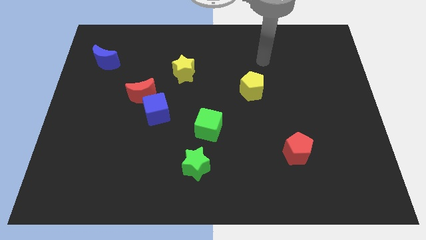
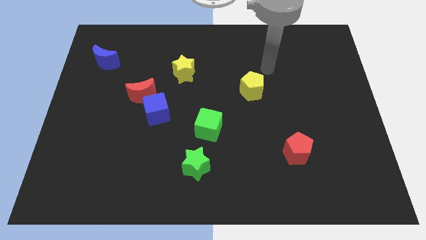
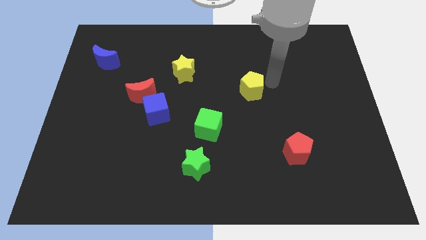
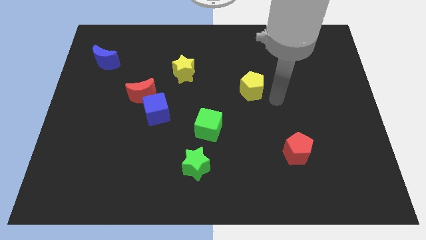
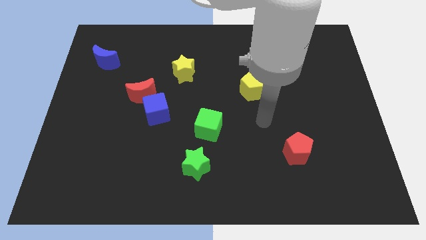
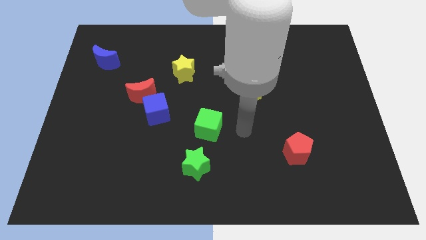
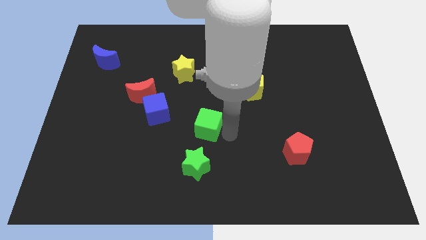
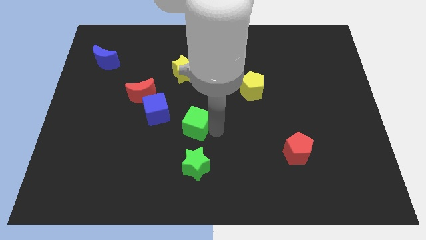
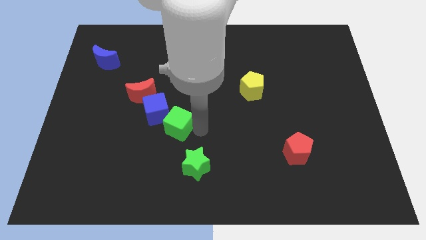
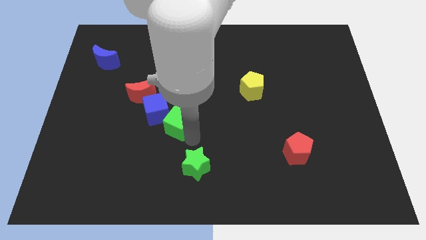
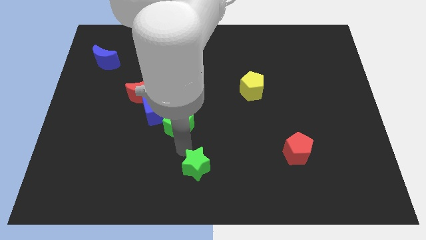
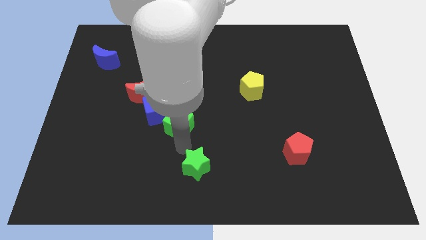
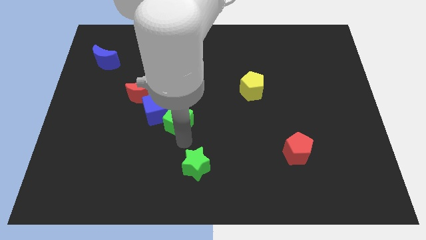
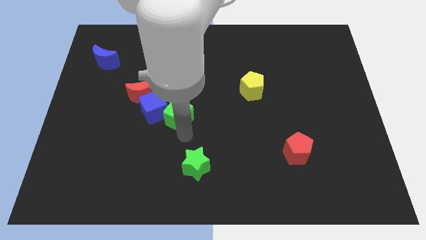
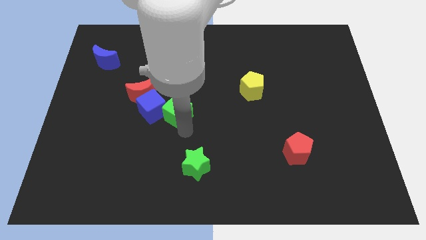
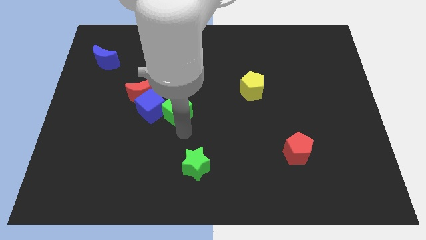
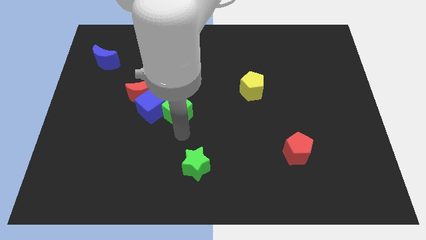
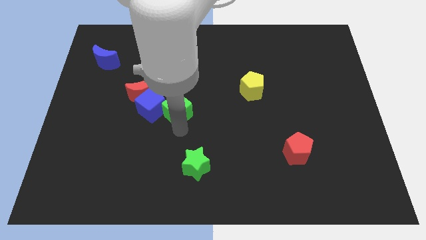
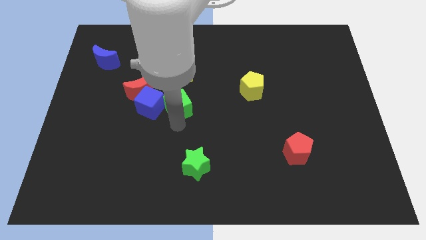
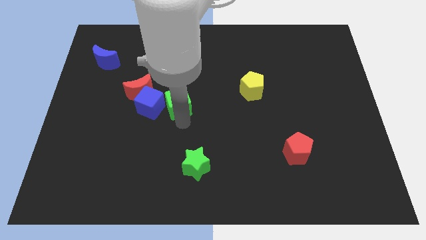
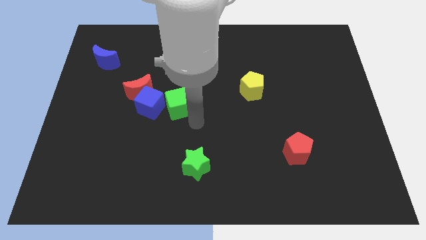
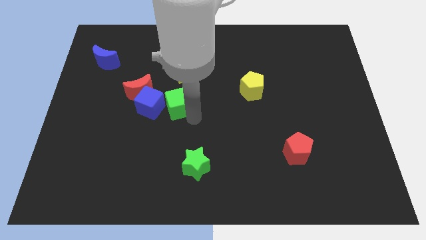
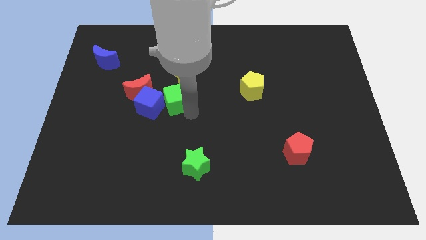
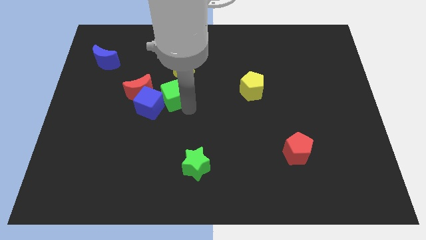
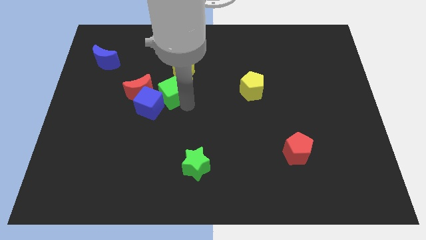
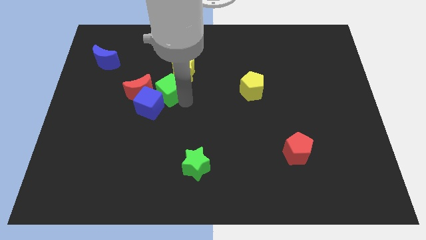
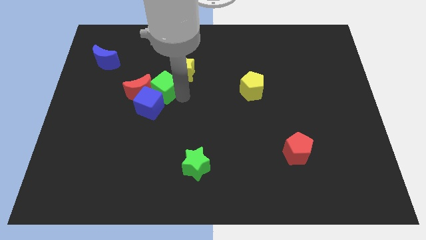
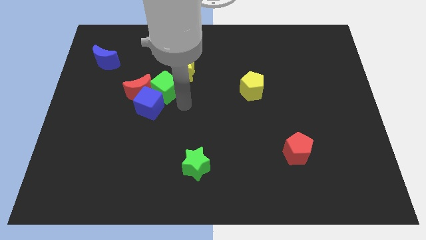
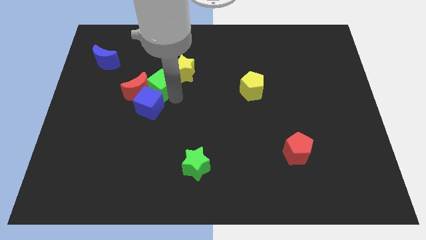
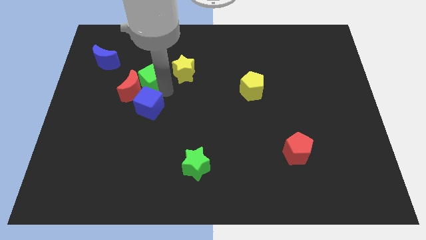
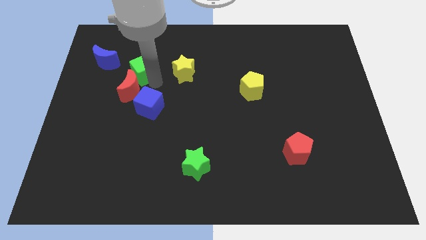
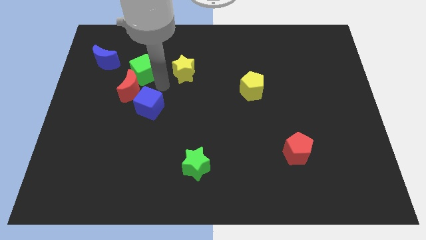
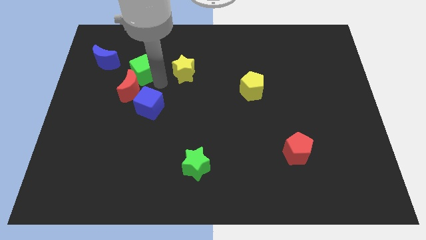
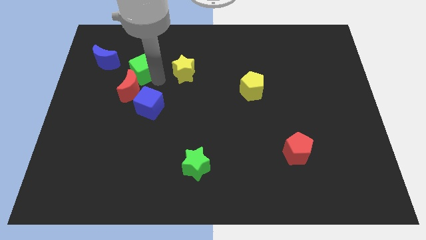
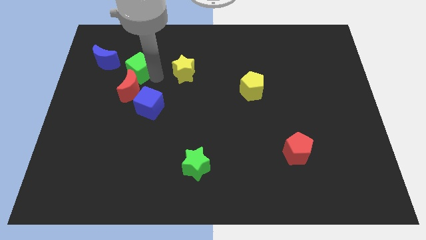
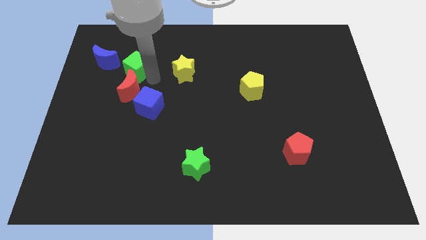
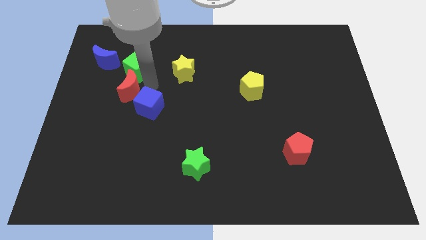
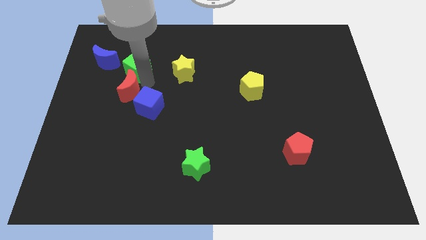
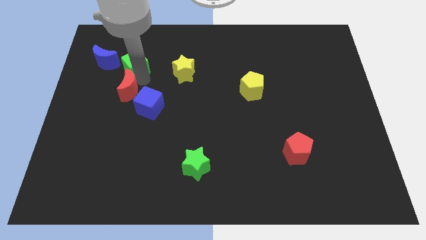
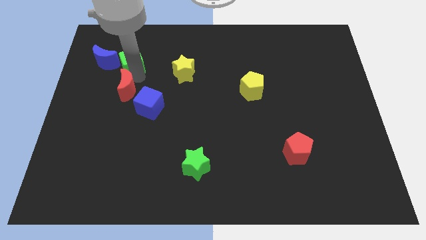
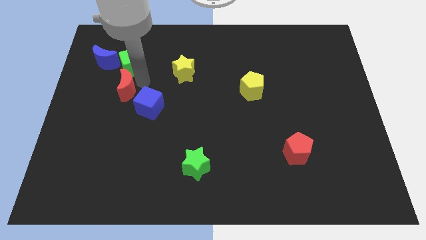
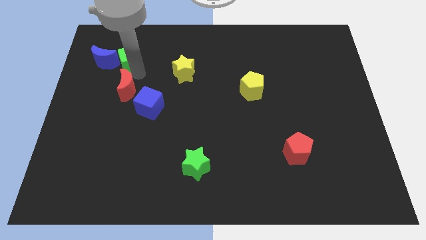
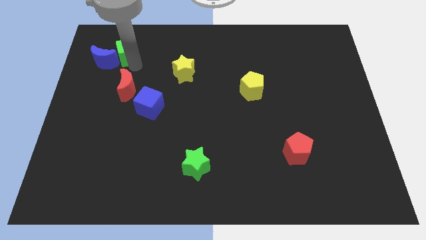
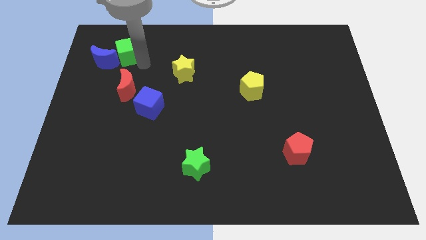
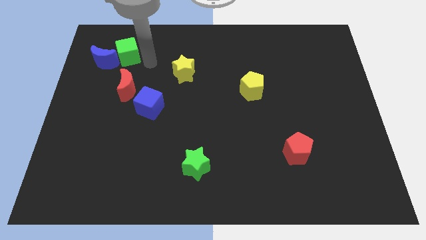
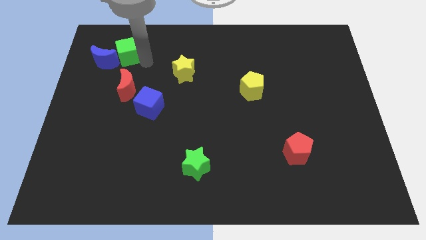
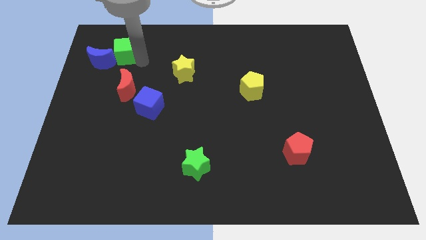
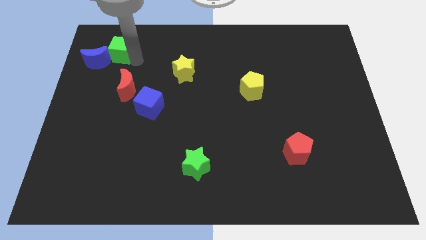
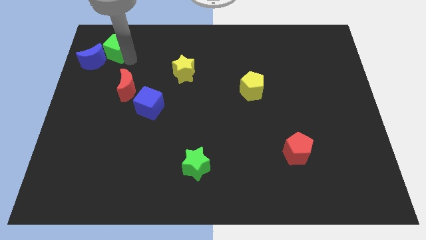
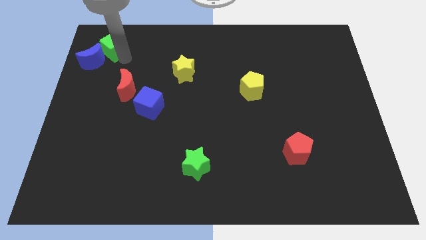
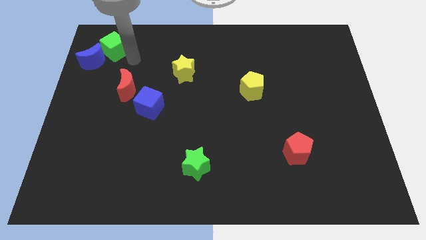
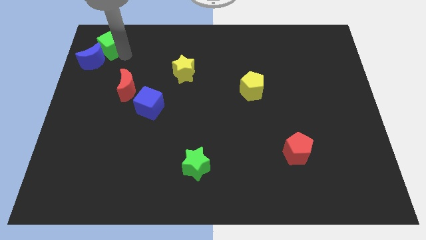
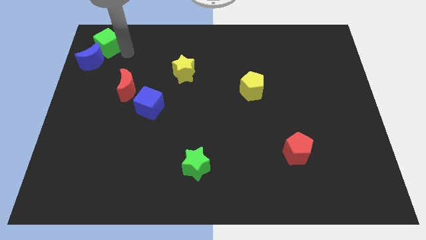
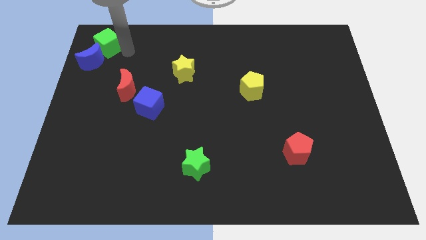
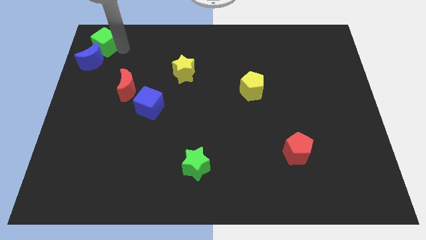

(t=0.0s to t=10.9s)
put the green cube to the top left corner

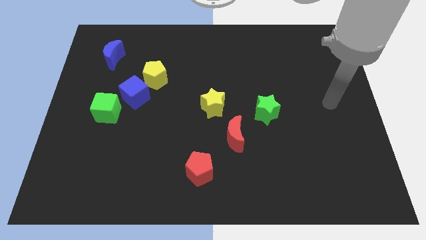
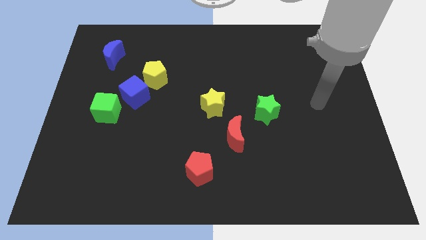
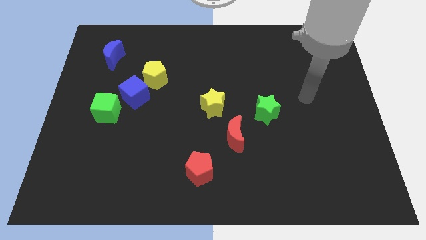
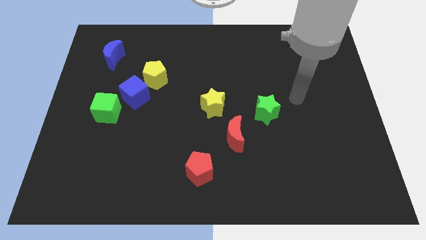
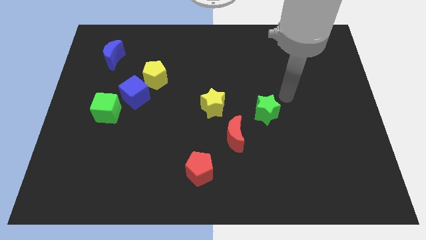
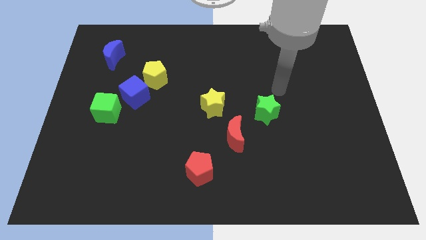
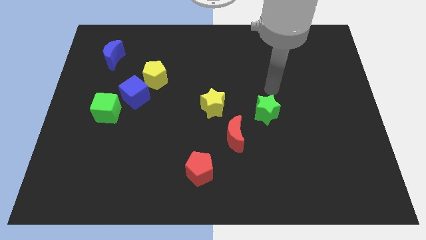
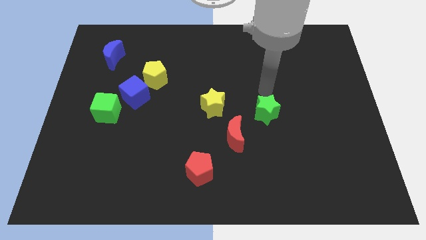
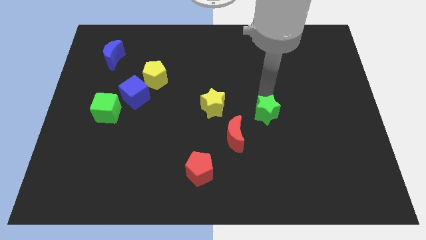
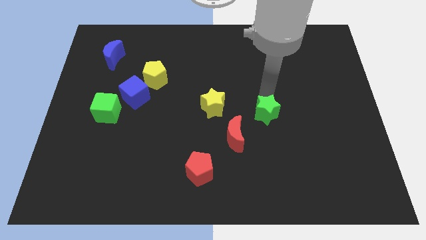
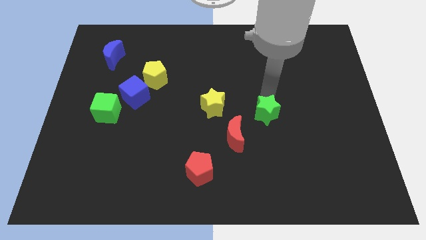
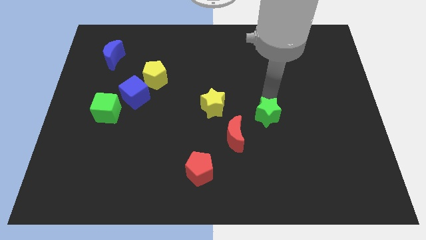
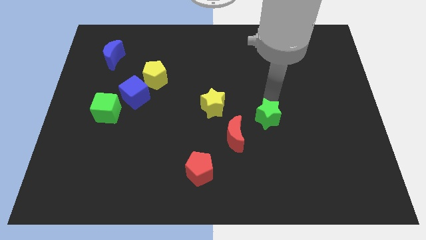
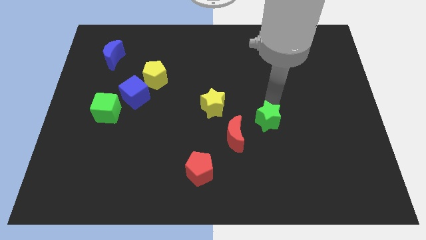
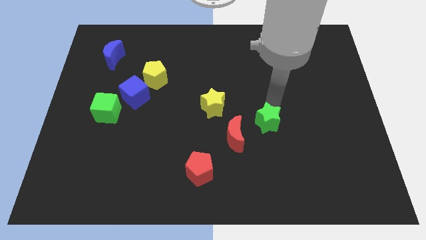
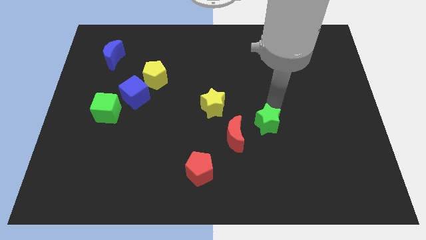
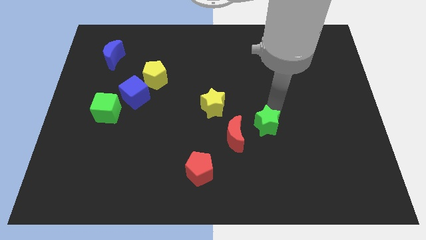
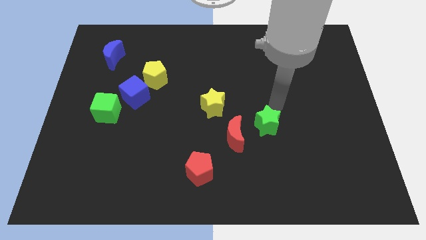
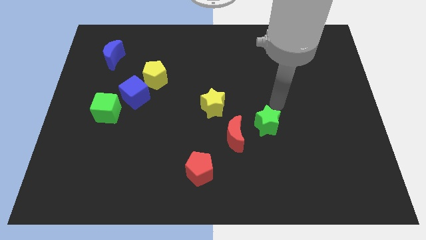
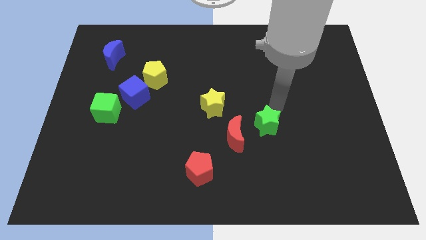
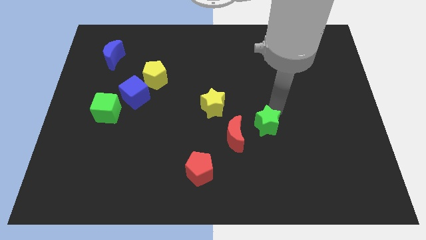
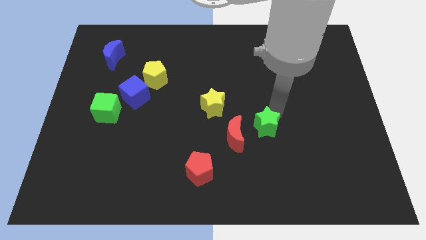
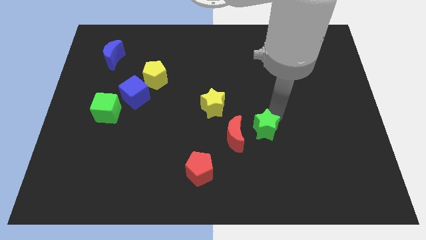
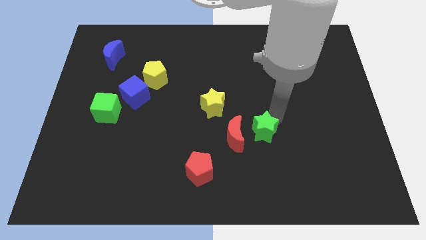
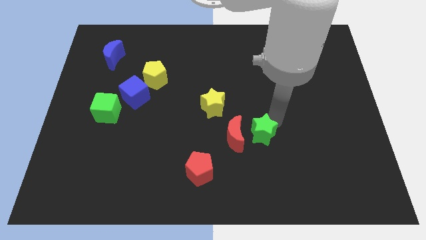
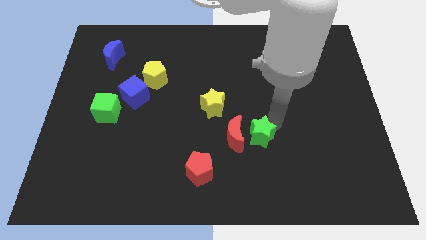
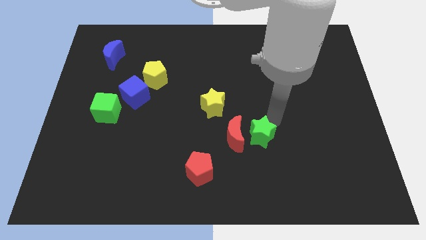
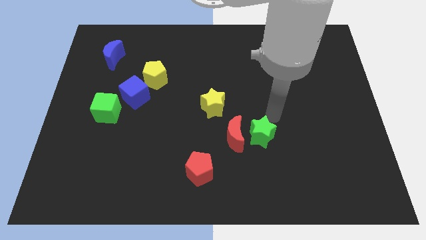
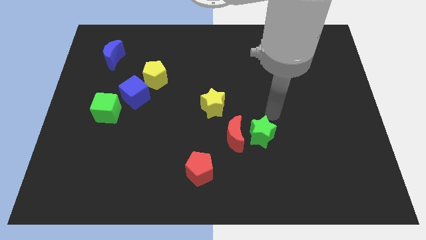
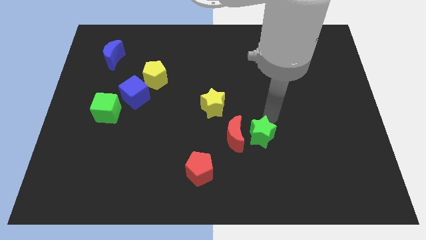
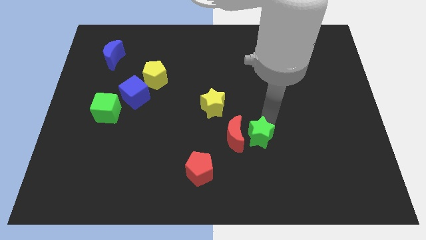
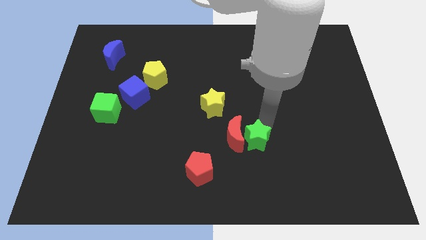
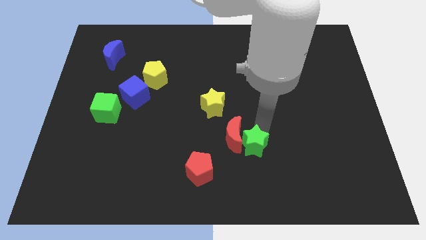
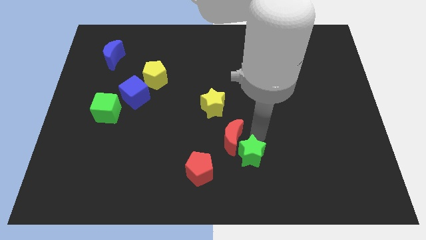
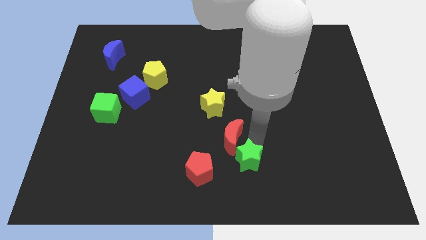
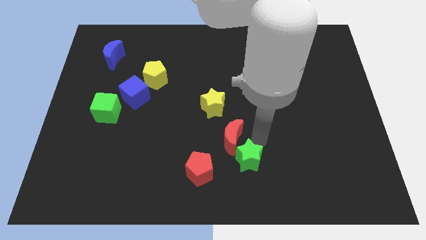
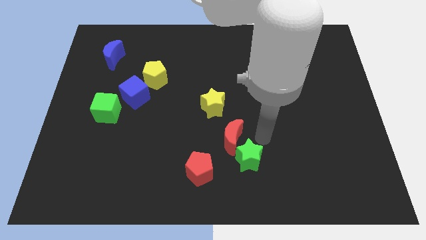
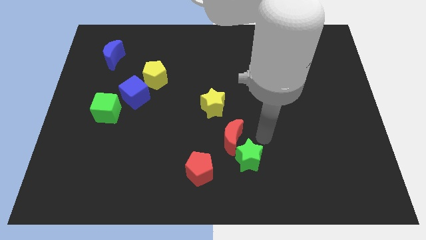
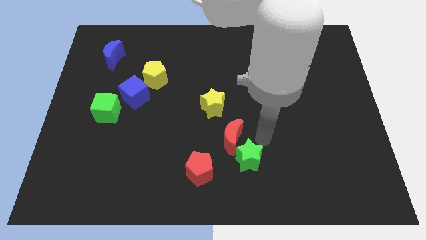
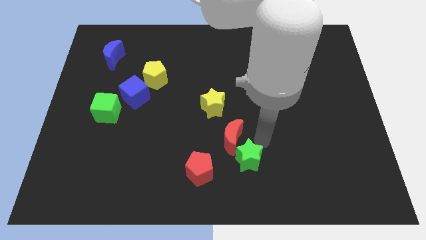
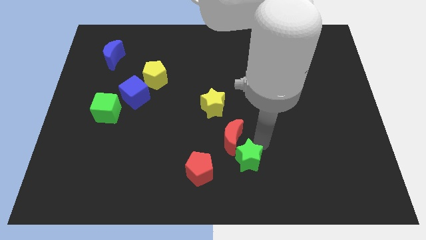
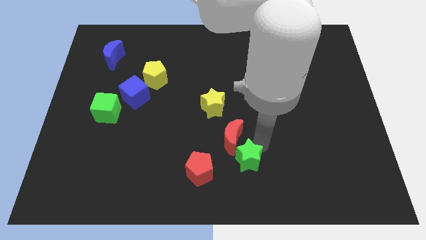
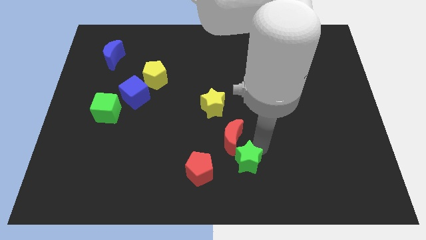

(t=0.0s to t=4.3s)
put the green star to the bottom side
